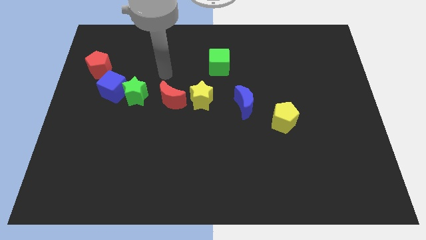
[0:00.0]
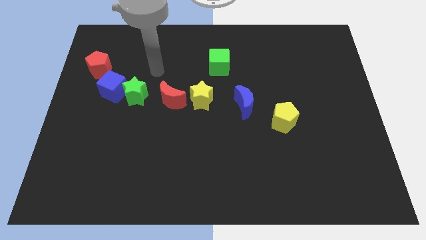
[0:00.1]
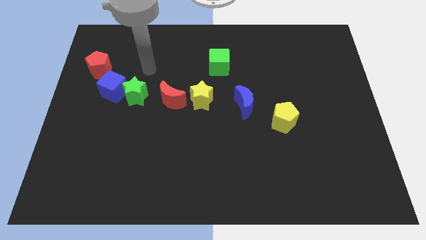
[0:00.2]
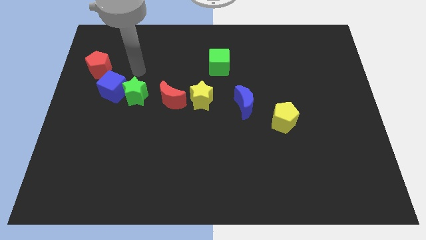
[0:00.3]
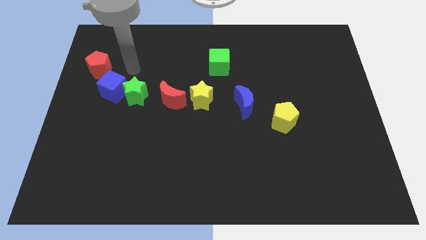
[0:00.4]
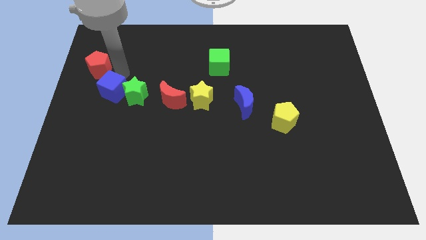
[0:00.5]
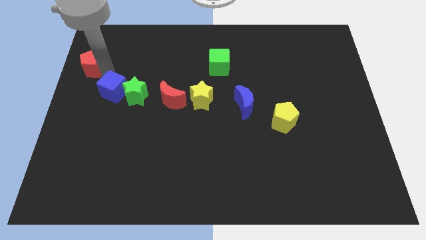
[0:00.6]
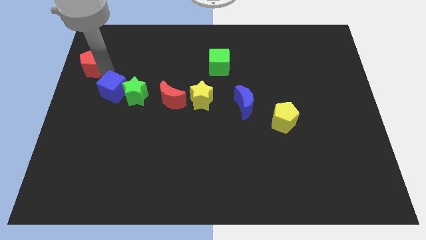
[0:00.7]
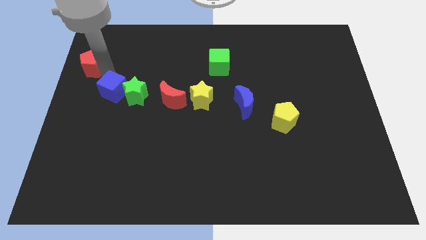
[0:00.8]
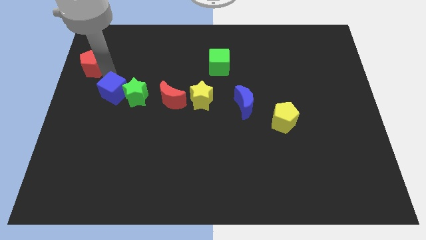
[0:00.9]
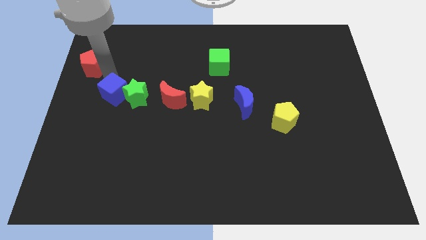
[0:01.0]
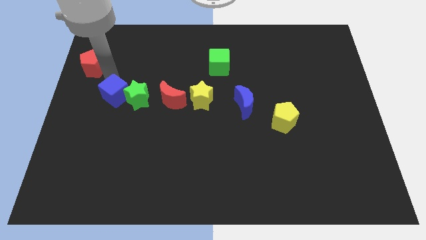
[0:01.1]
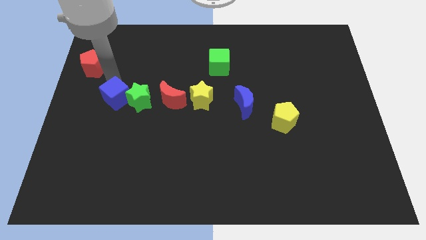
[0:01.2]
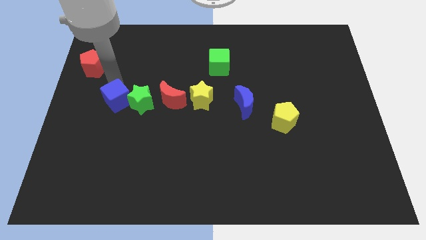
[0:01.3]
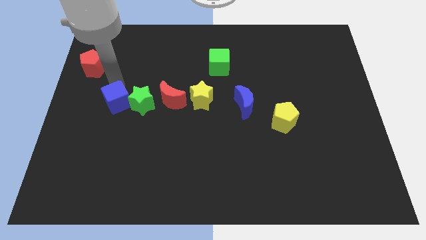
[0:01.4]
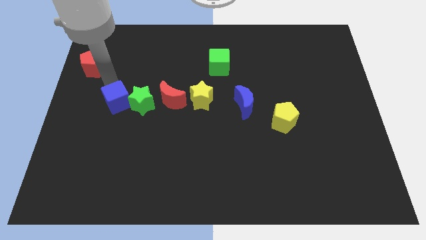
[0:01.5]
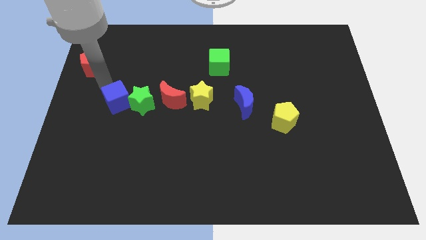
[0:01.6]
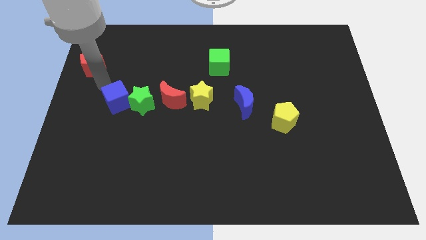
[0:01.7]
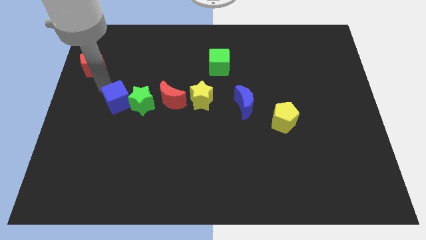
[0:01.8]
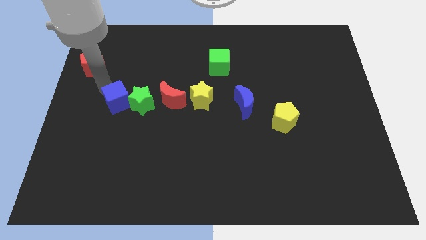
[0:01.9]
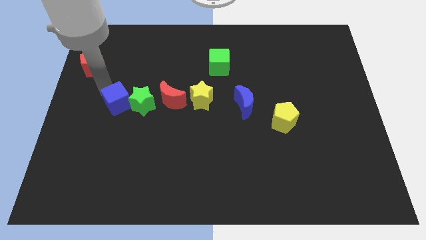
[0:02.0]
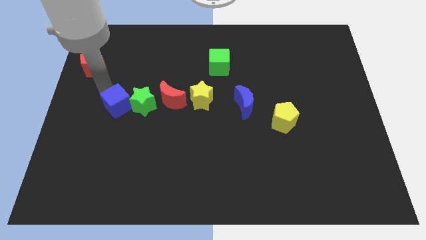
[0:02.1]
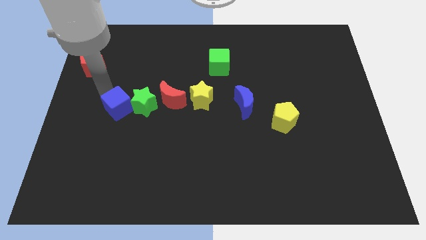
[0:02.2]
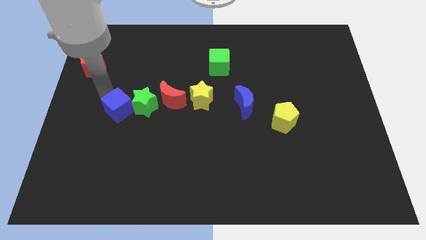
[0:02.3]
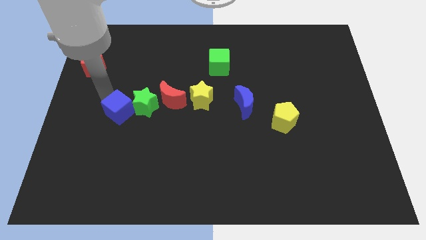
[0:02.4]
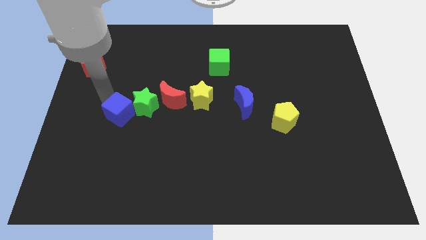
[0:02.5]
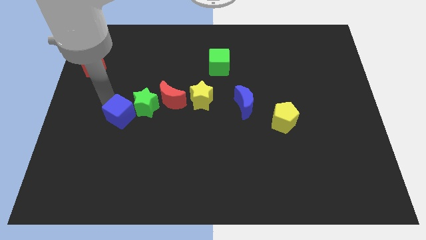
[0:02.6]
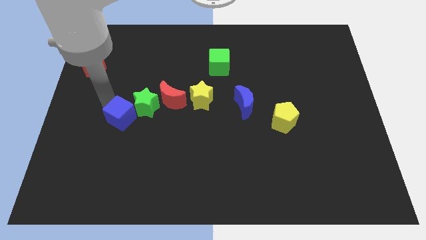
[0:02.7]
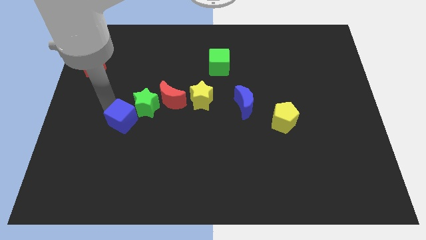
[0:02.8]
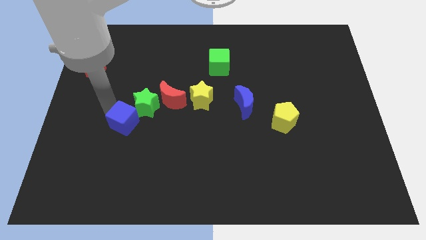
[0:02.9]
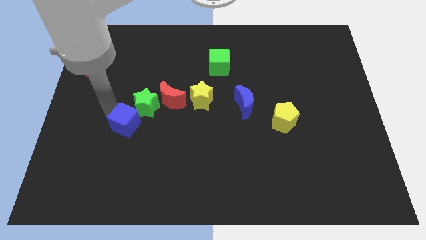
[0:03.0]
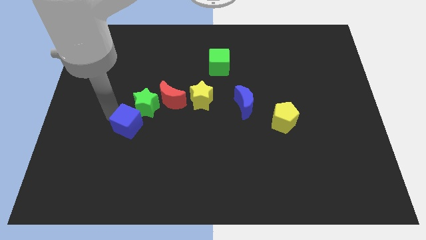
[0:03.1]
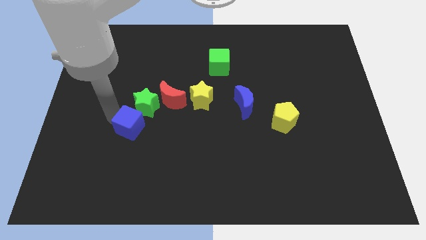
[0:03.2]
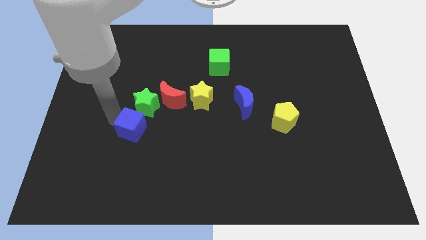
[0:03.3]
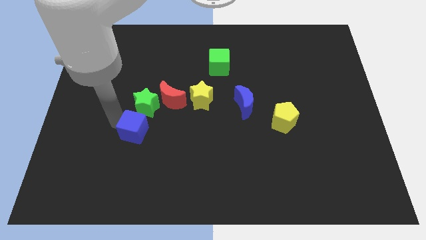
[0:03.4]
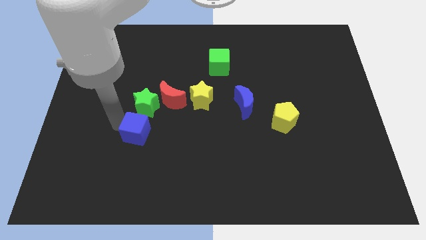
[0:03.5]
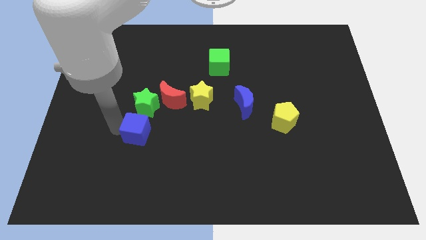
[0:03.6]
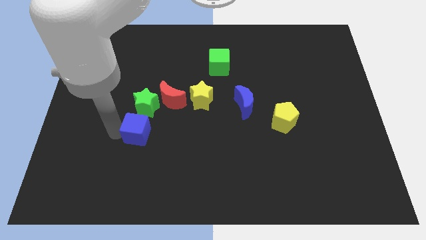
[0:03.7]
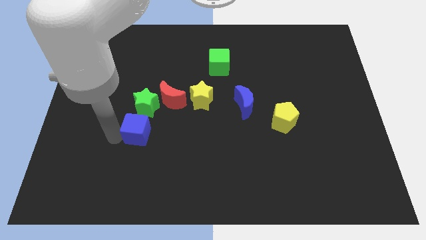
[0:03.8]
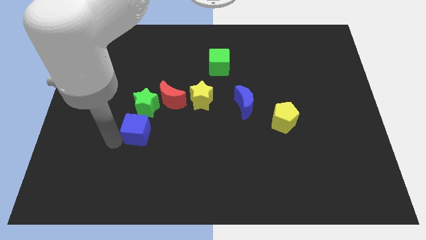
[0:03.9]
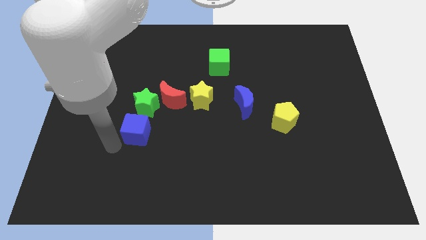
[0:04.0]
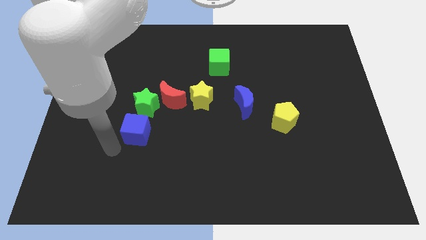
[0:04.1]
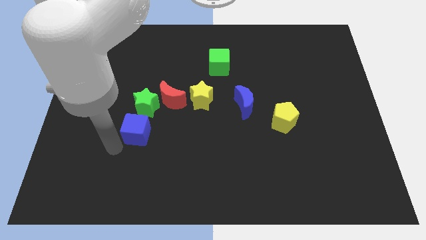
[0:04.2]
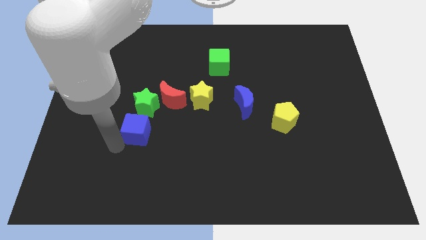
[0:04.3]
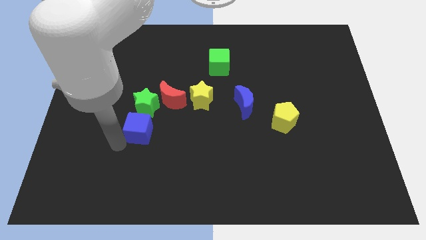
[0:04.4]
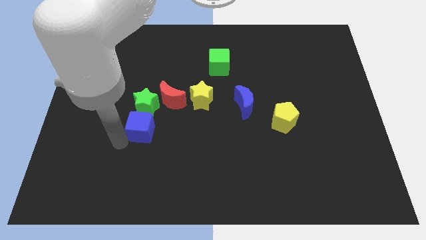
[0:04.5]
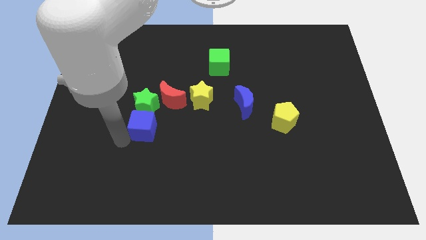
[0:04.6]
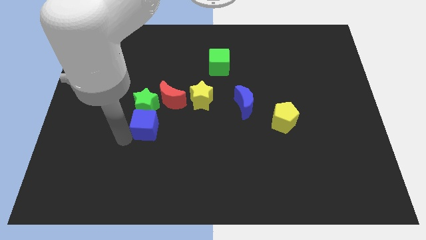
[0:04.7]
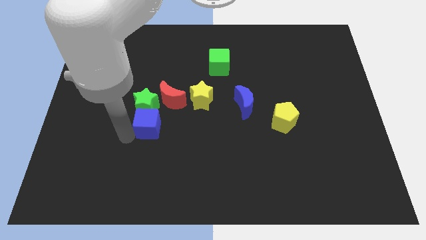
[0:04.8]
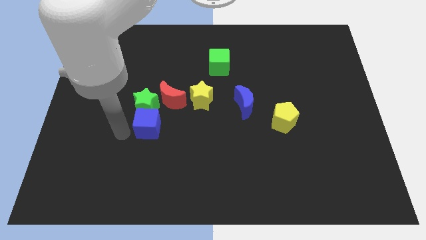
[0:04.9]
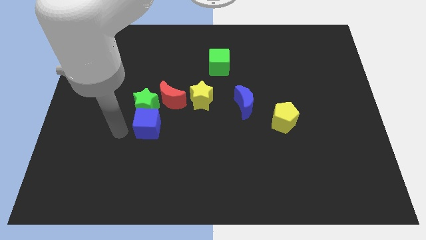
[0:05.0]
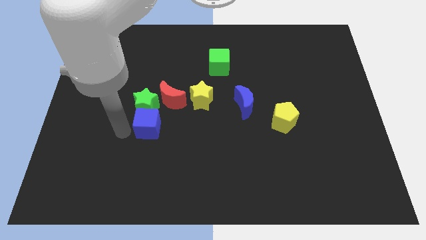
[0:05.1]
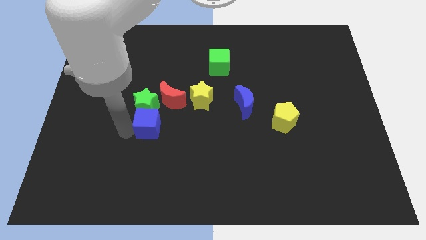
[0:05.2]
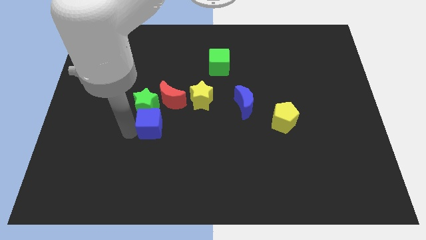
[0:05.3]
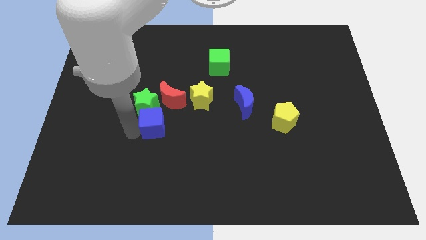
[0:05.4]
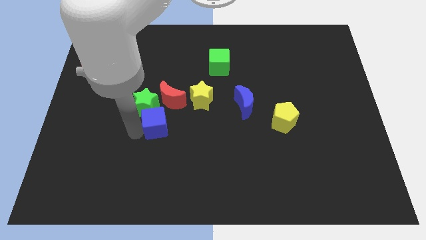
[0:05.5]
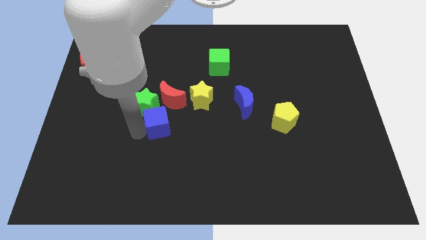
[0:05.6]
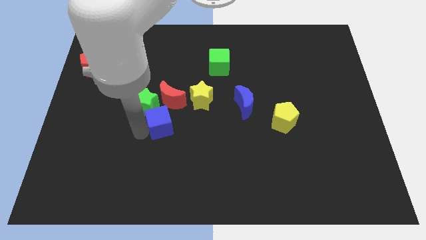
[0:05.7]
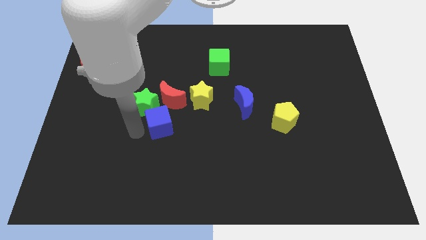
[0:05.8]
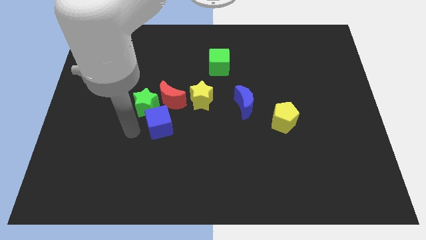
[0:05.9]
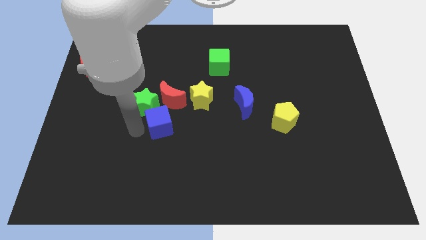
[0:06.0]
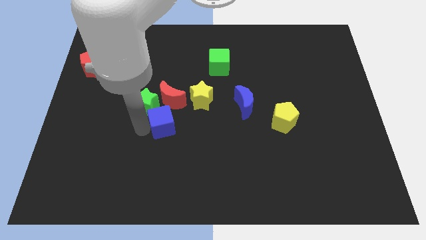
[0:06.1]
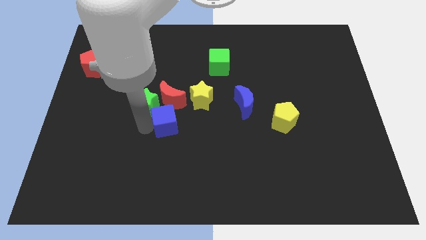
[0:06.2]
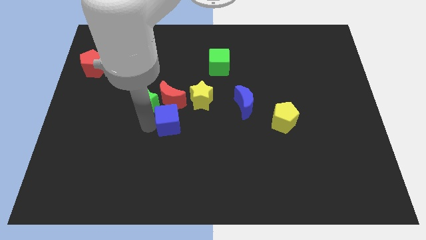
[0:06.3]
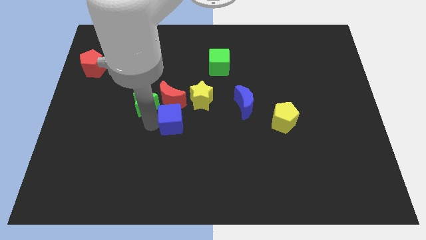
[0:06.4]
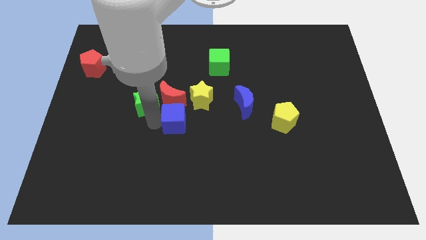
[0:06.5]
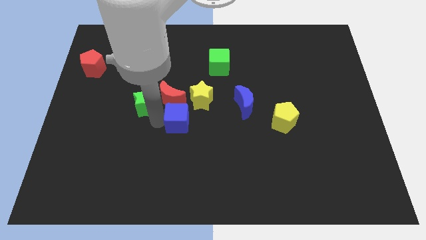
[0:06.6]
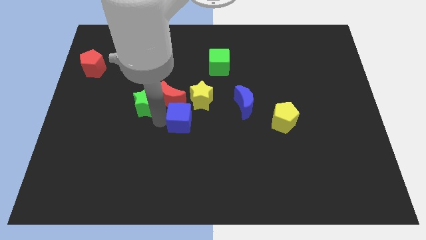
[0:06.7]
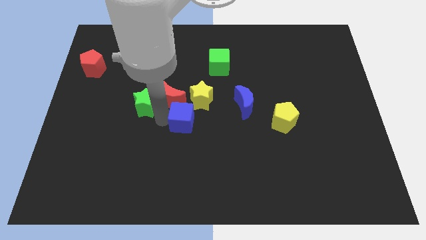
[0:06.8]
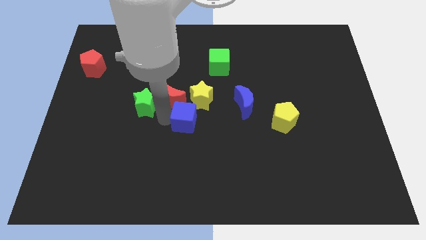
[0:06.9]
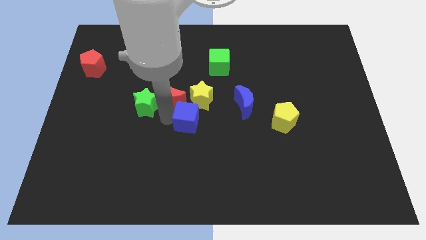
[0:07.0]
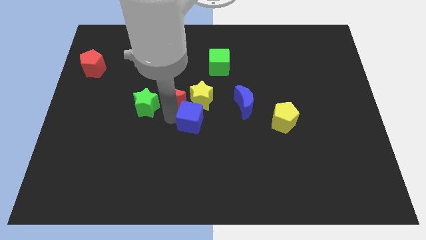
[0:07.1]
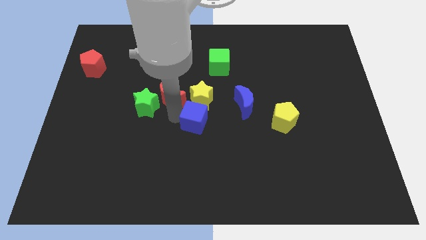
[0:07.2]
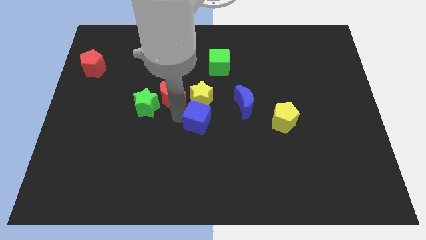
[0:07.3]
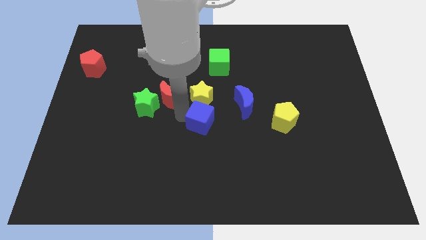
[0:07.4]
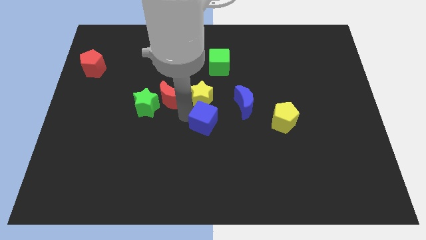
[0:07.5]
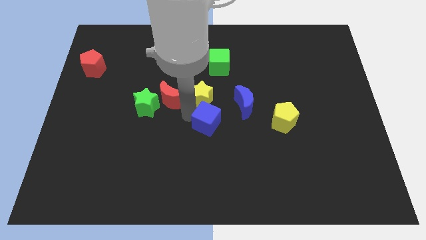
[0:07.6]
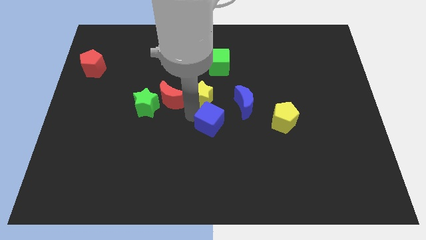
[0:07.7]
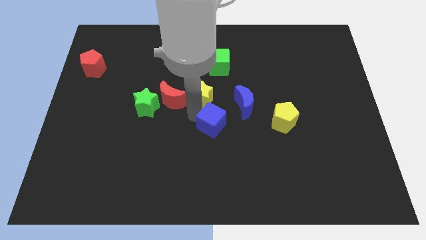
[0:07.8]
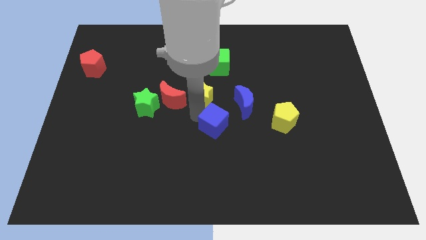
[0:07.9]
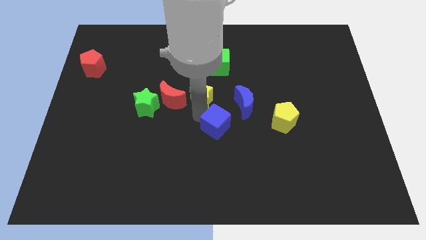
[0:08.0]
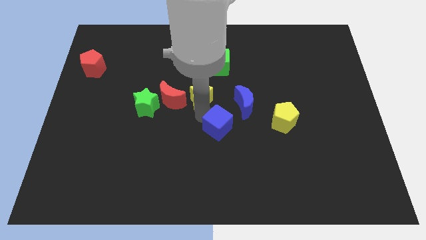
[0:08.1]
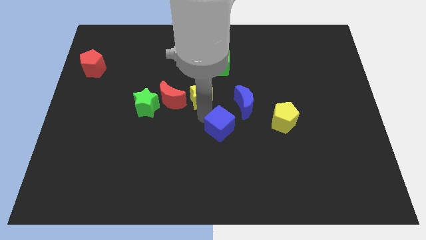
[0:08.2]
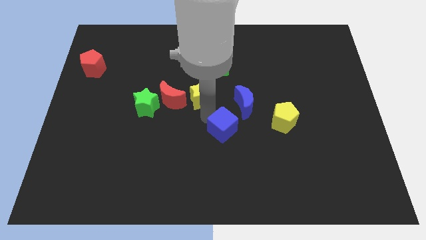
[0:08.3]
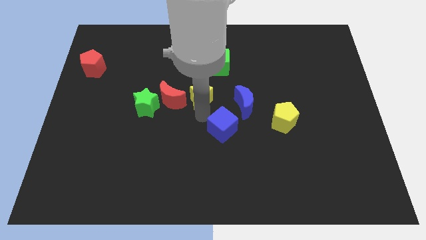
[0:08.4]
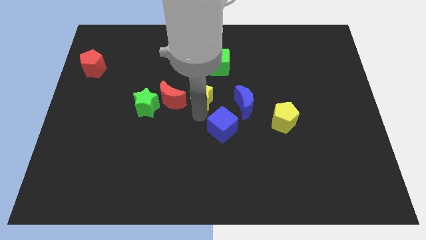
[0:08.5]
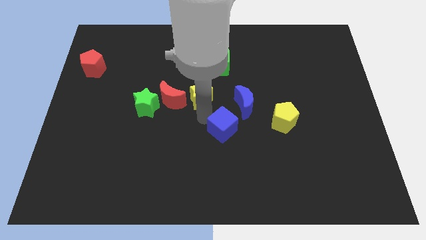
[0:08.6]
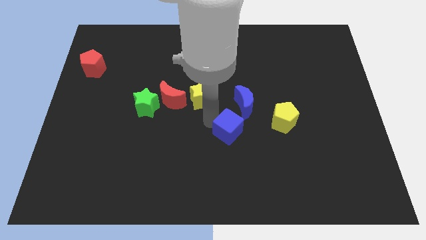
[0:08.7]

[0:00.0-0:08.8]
push the blue cube below the blue moon

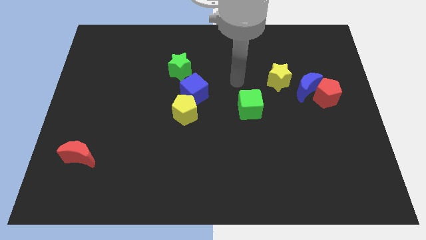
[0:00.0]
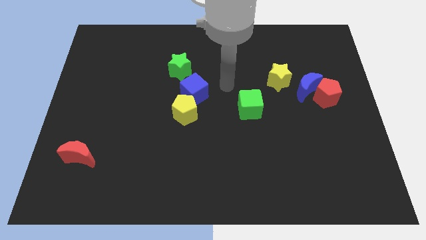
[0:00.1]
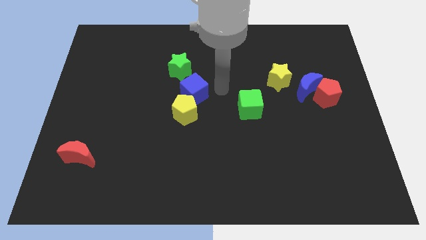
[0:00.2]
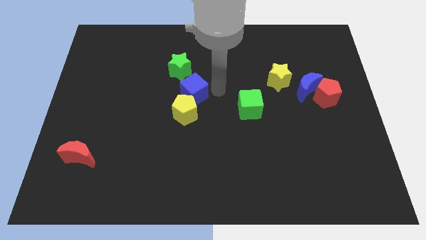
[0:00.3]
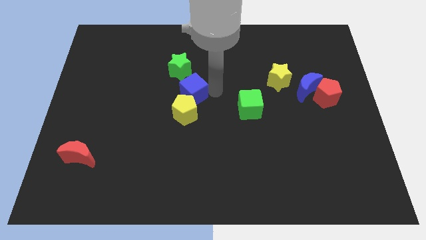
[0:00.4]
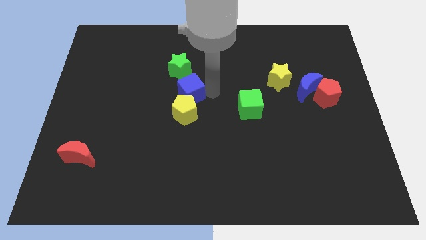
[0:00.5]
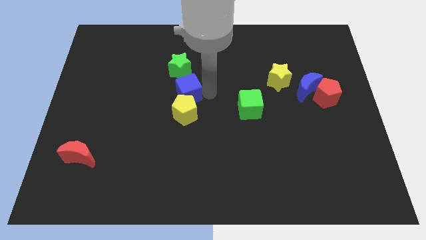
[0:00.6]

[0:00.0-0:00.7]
push the blue cube to the top left side of the yellow pentagon
